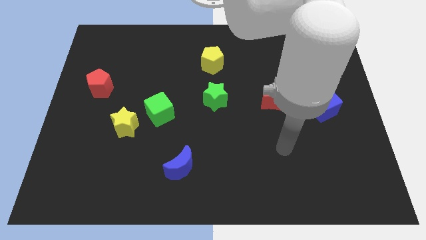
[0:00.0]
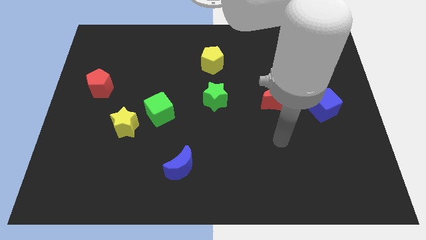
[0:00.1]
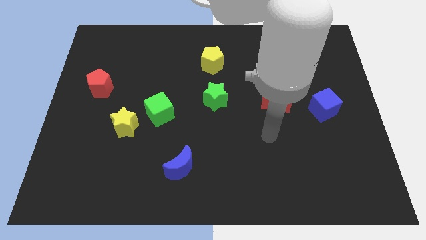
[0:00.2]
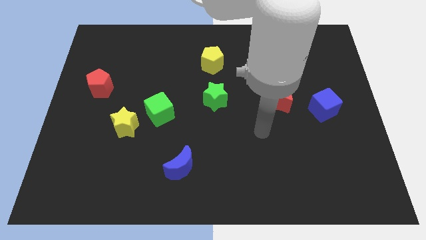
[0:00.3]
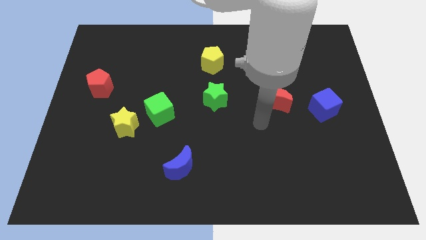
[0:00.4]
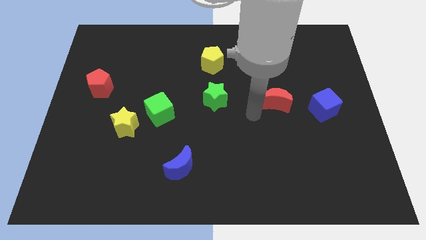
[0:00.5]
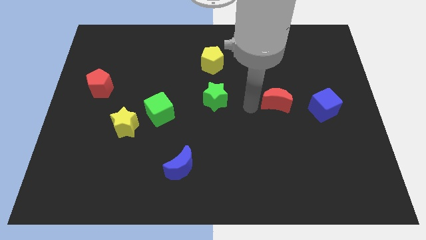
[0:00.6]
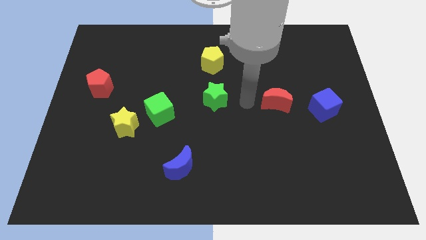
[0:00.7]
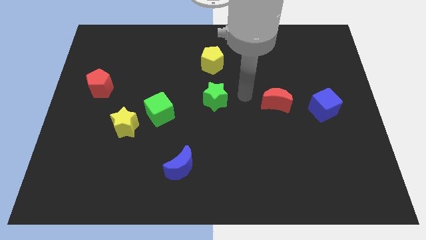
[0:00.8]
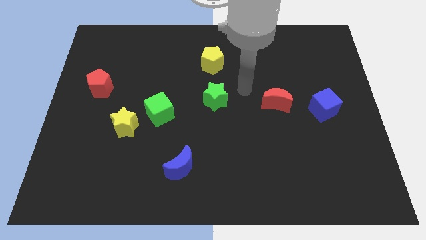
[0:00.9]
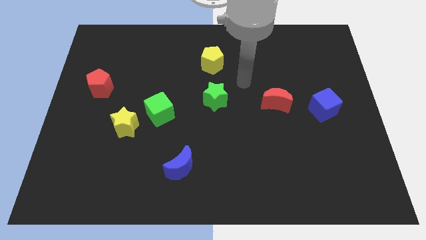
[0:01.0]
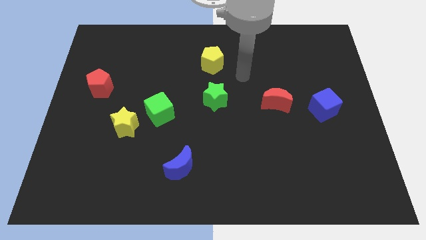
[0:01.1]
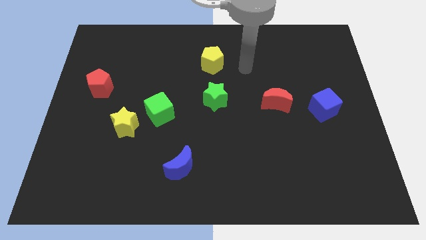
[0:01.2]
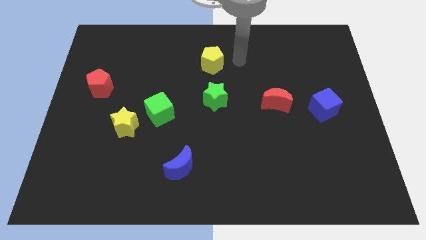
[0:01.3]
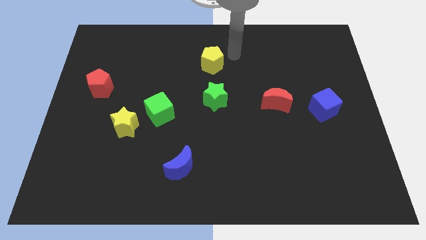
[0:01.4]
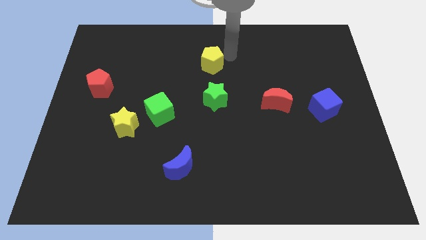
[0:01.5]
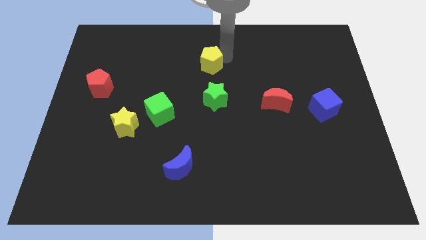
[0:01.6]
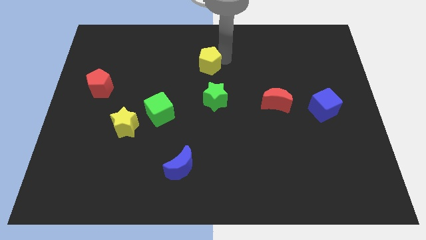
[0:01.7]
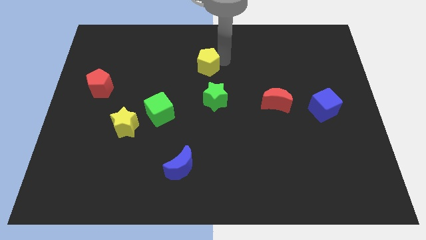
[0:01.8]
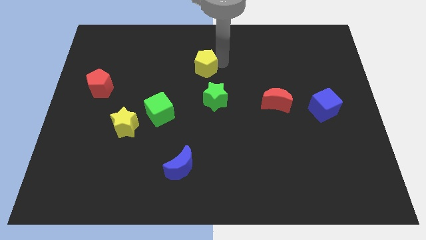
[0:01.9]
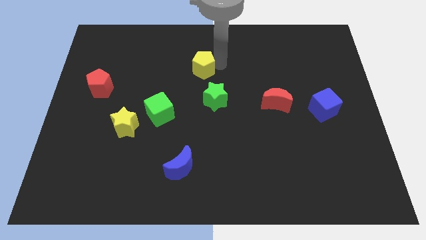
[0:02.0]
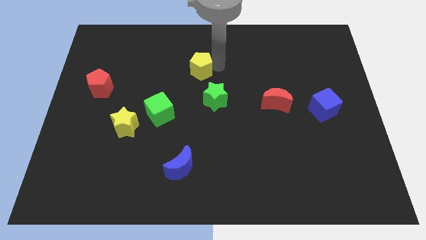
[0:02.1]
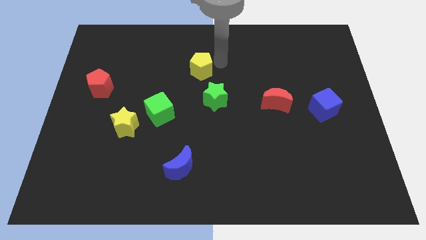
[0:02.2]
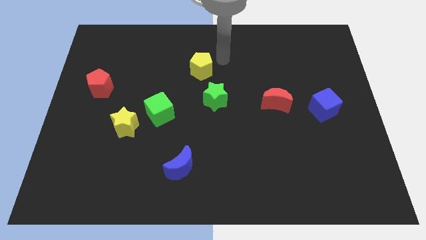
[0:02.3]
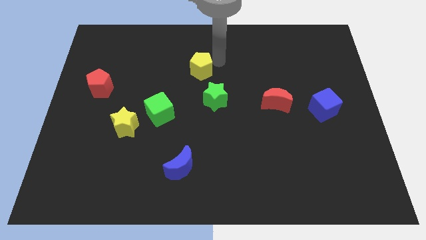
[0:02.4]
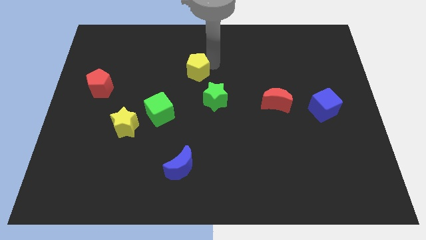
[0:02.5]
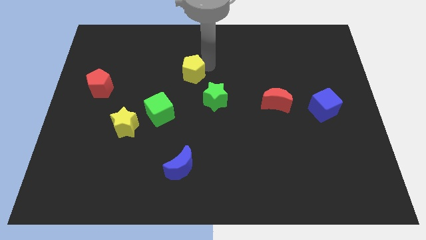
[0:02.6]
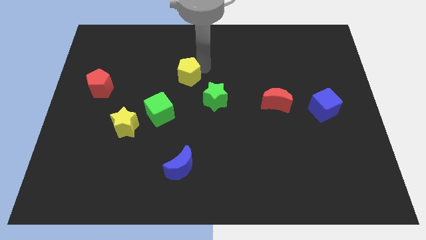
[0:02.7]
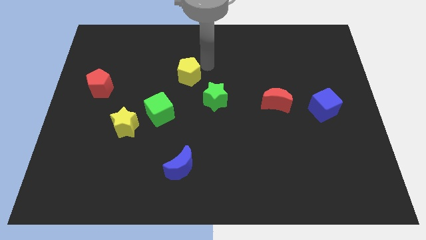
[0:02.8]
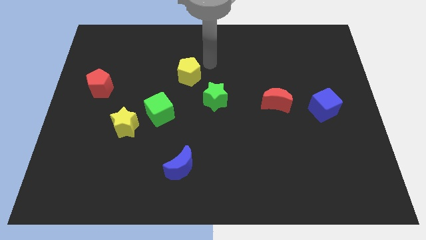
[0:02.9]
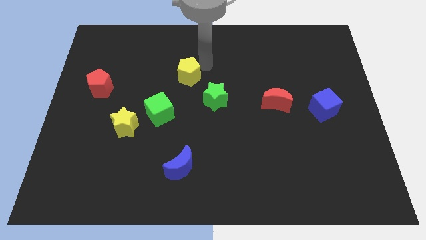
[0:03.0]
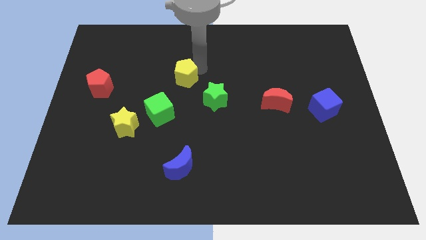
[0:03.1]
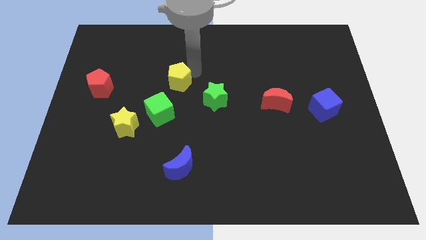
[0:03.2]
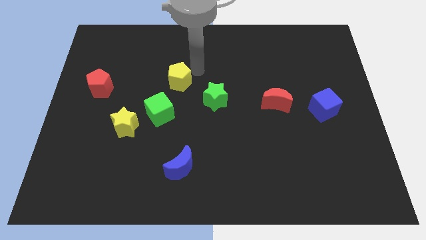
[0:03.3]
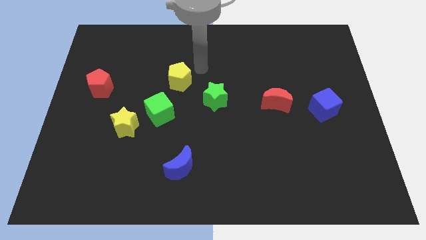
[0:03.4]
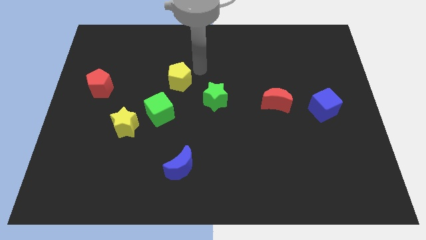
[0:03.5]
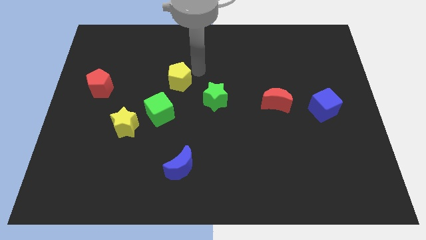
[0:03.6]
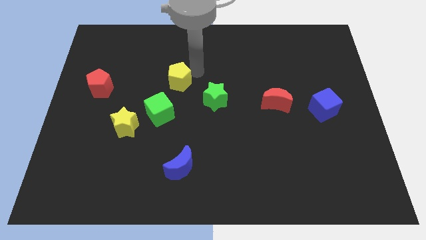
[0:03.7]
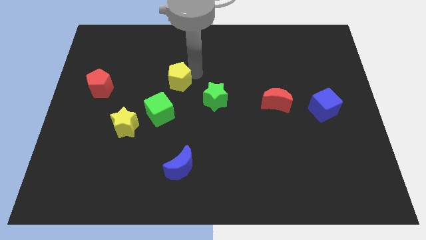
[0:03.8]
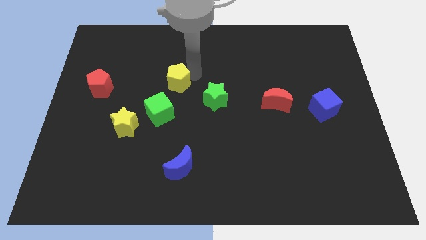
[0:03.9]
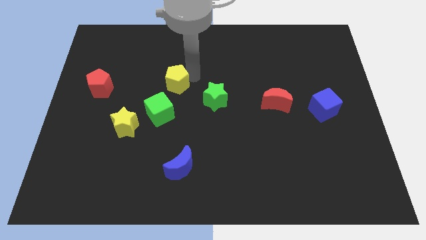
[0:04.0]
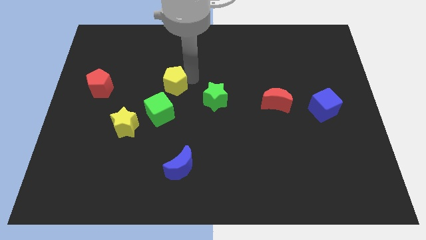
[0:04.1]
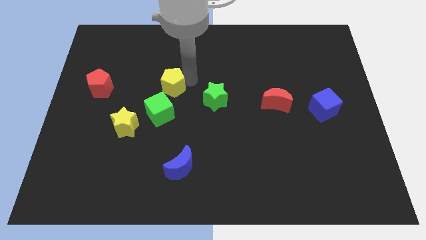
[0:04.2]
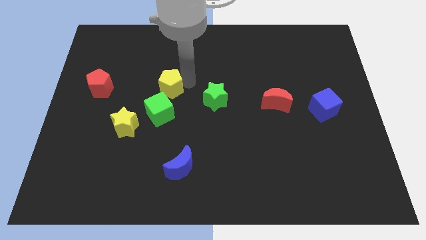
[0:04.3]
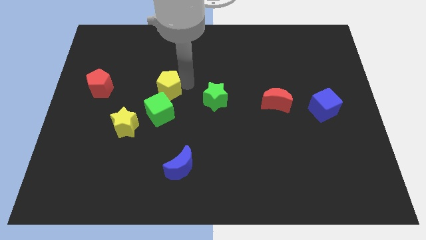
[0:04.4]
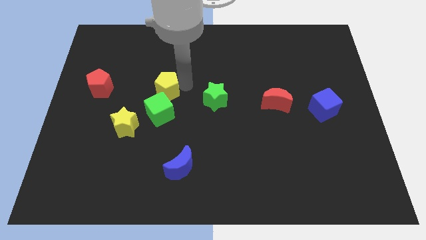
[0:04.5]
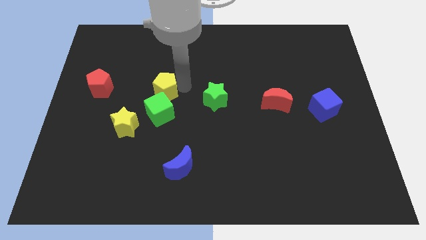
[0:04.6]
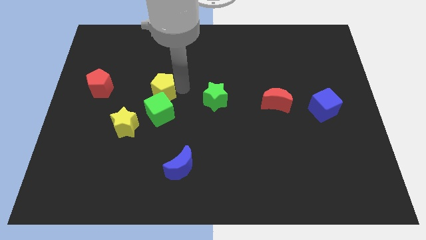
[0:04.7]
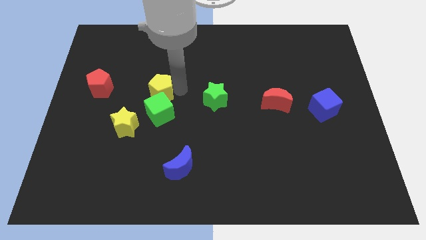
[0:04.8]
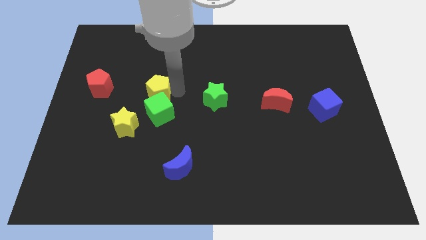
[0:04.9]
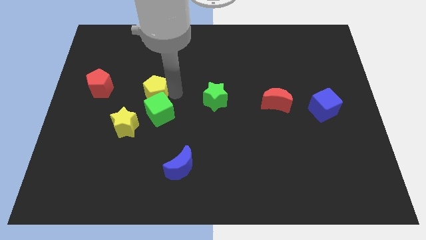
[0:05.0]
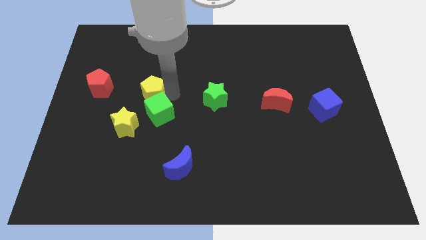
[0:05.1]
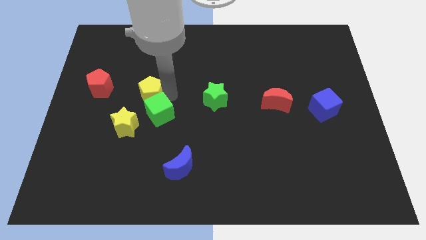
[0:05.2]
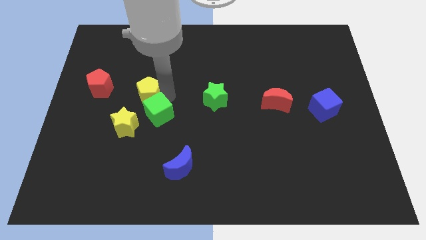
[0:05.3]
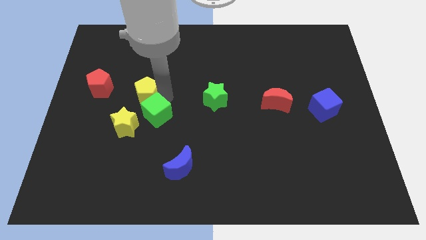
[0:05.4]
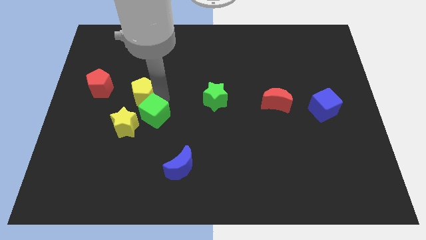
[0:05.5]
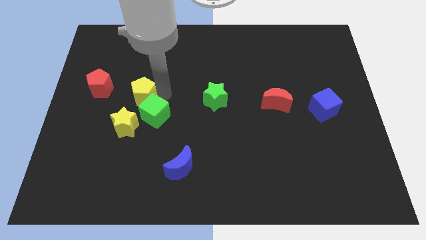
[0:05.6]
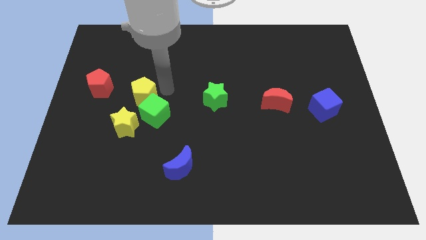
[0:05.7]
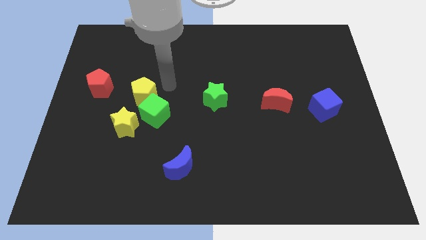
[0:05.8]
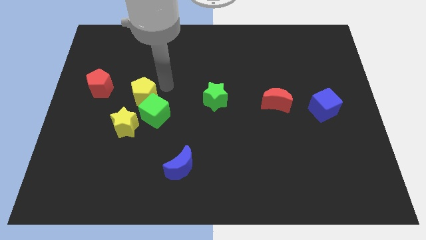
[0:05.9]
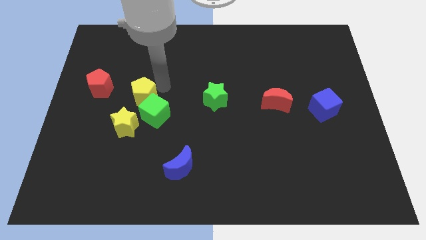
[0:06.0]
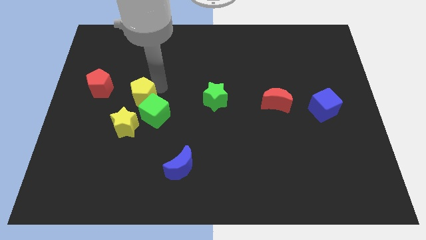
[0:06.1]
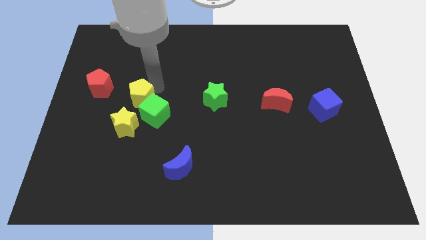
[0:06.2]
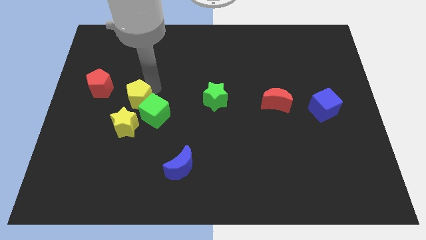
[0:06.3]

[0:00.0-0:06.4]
move the yellow pentagon downwards and to the left diagonally

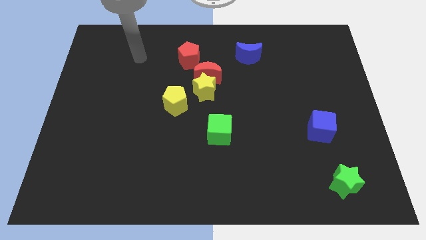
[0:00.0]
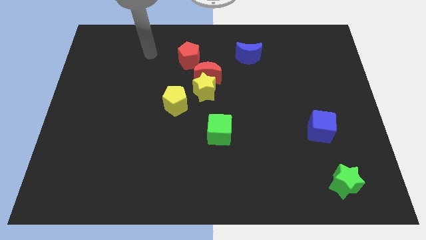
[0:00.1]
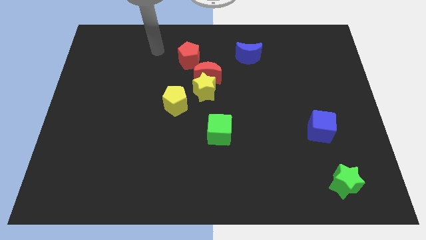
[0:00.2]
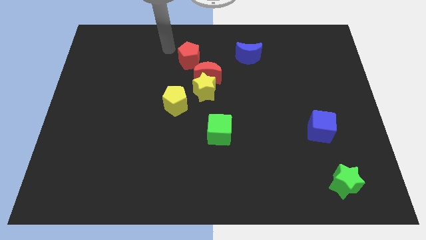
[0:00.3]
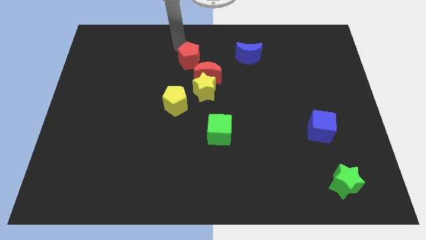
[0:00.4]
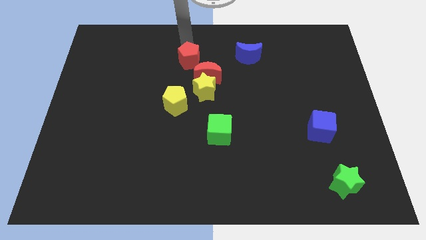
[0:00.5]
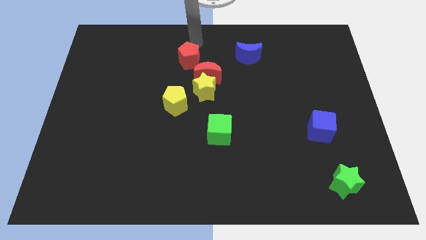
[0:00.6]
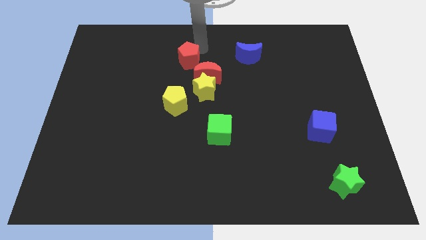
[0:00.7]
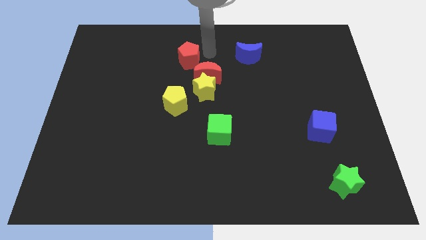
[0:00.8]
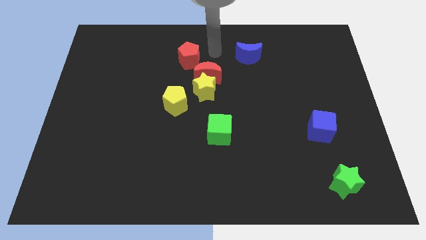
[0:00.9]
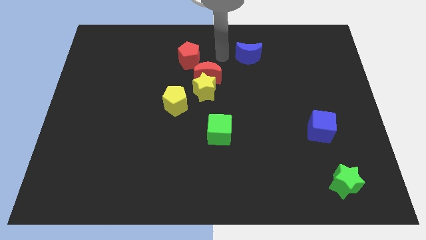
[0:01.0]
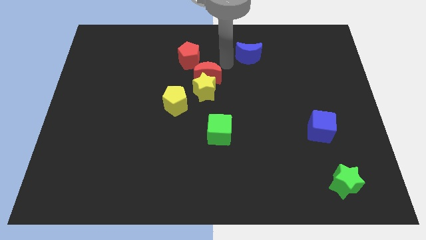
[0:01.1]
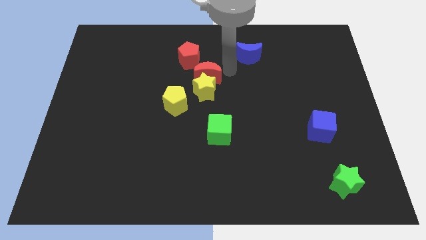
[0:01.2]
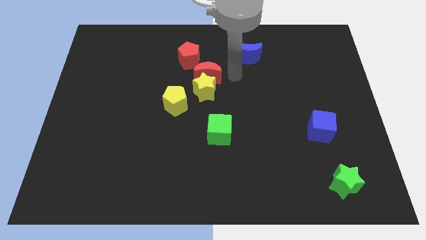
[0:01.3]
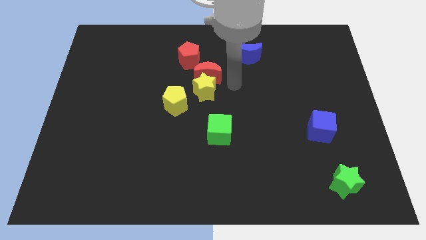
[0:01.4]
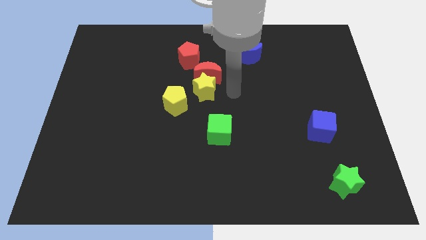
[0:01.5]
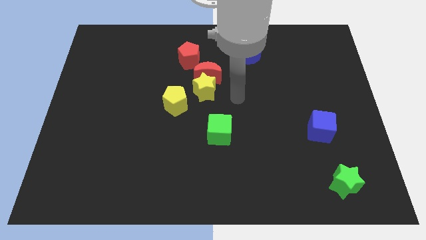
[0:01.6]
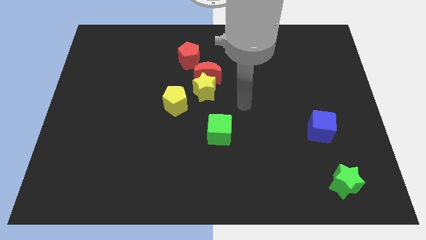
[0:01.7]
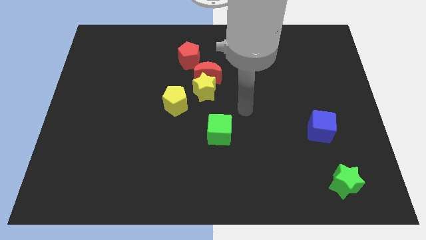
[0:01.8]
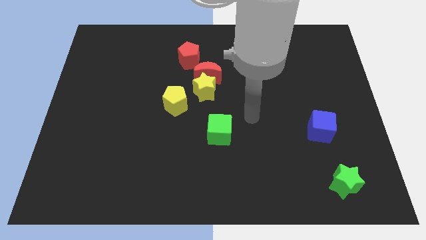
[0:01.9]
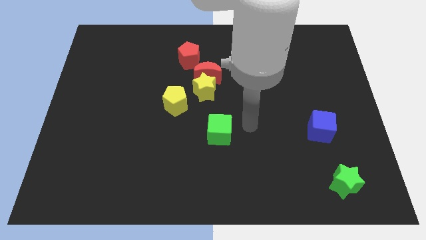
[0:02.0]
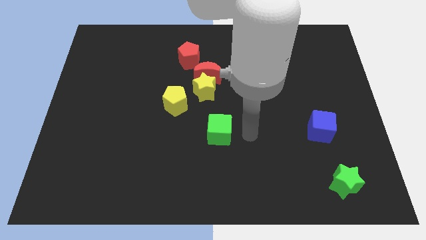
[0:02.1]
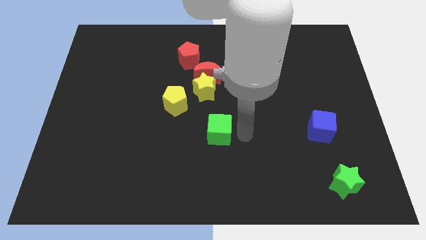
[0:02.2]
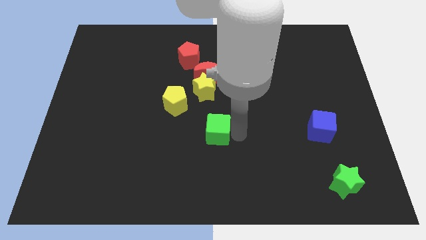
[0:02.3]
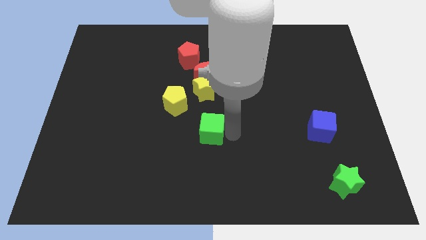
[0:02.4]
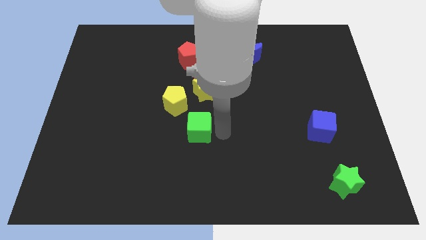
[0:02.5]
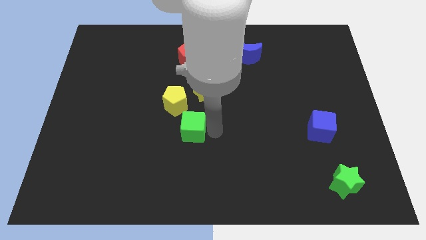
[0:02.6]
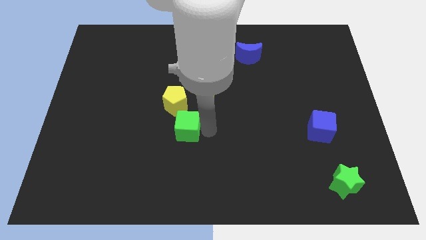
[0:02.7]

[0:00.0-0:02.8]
push the green cube left a bit
